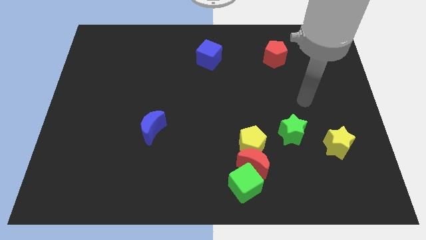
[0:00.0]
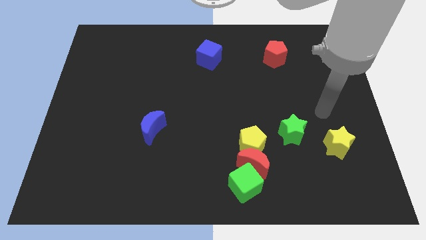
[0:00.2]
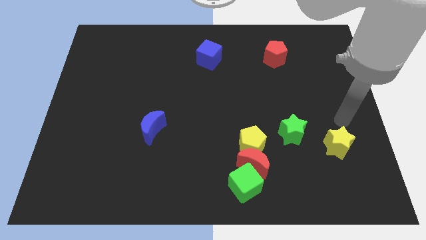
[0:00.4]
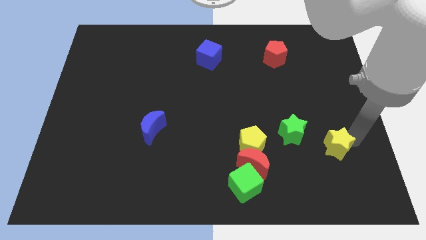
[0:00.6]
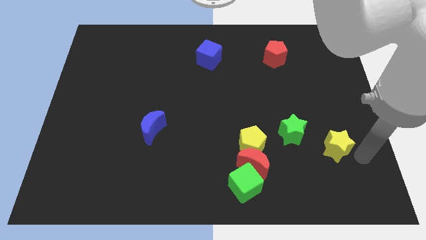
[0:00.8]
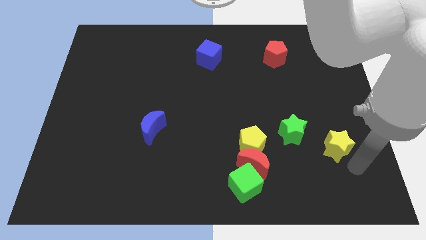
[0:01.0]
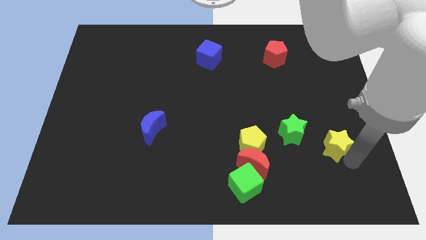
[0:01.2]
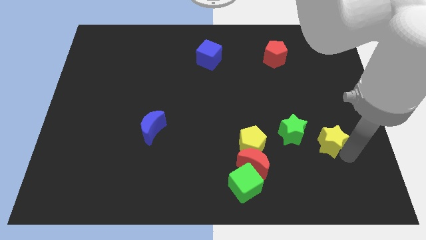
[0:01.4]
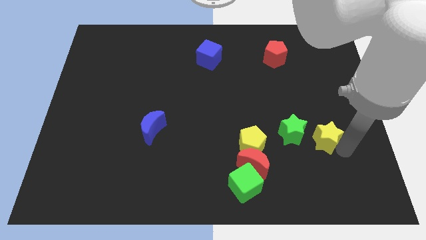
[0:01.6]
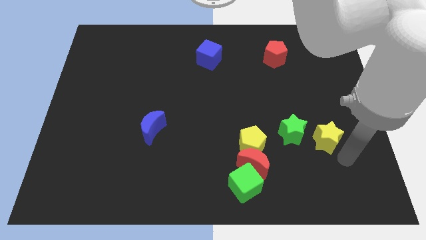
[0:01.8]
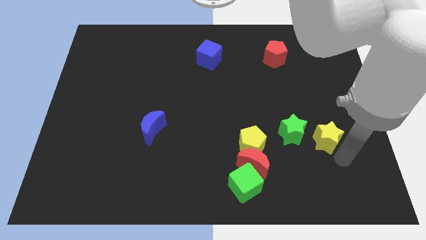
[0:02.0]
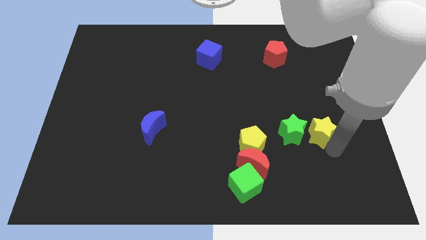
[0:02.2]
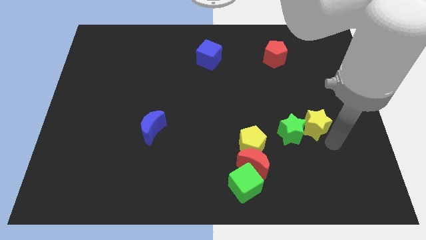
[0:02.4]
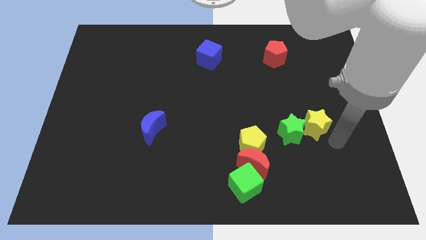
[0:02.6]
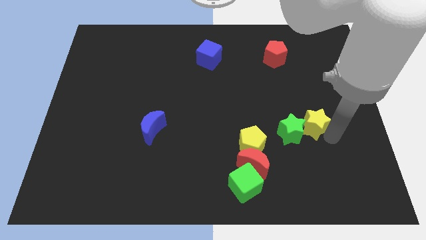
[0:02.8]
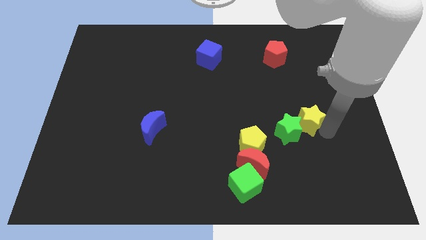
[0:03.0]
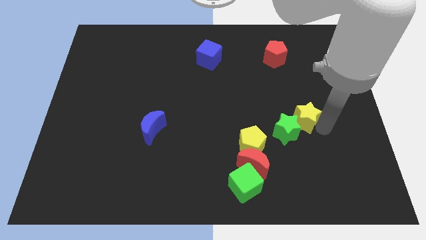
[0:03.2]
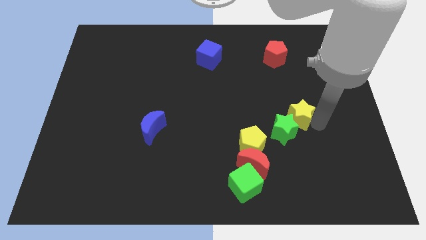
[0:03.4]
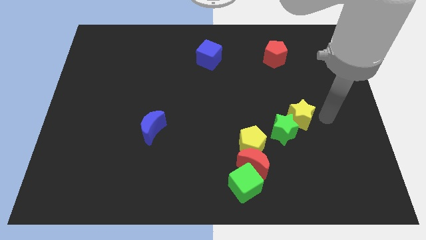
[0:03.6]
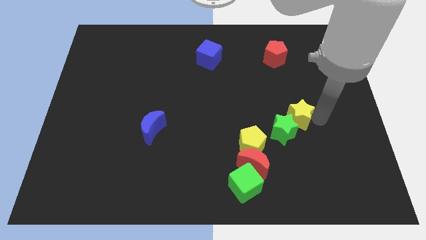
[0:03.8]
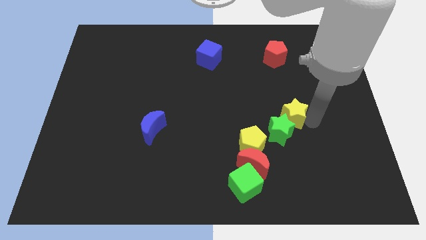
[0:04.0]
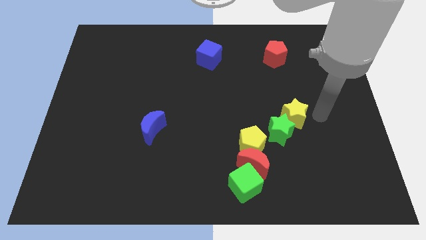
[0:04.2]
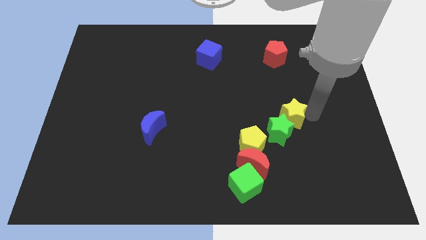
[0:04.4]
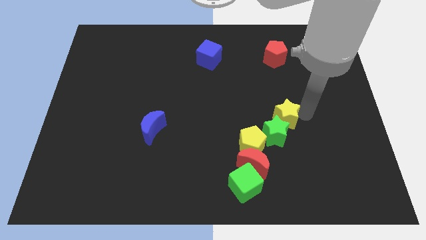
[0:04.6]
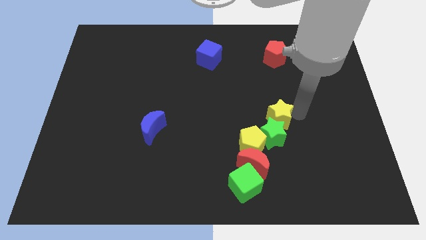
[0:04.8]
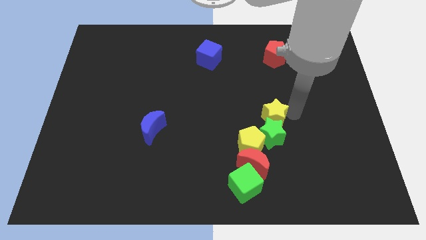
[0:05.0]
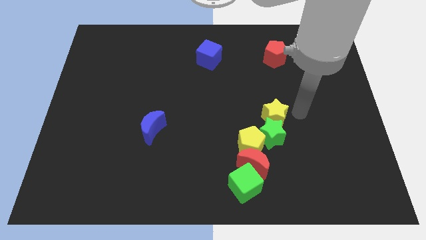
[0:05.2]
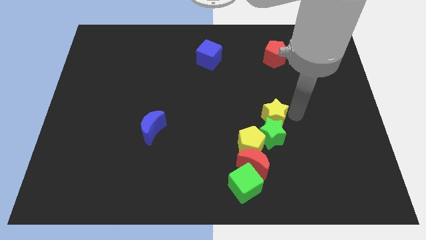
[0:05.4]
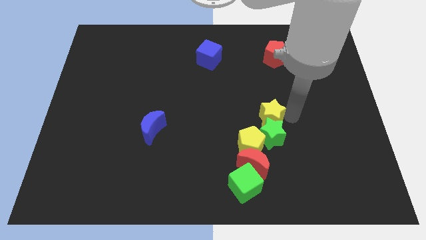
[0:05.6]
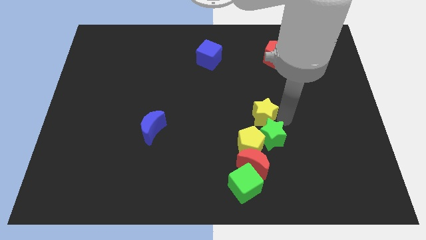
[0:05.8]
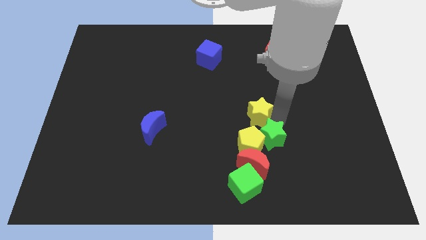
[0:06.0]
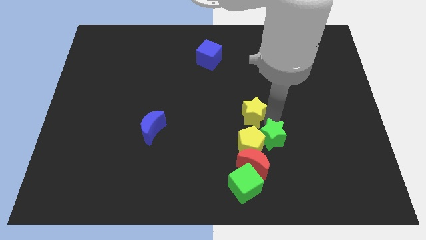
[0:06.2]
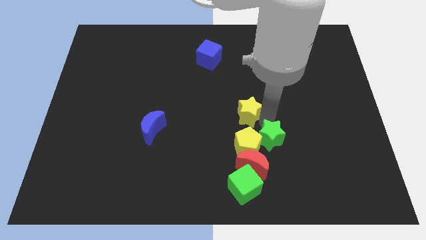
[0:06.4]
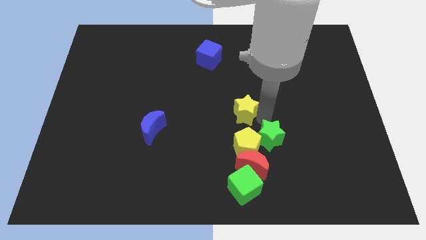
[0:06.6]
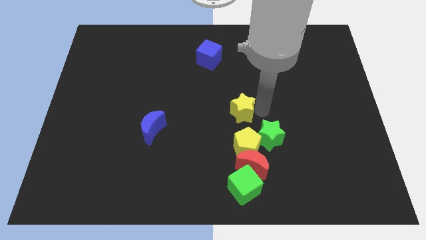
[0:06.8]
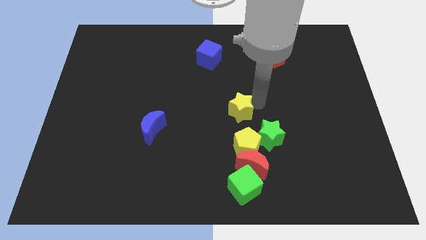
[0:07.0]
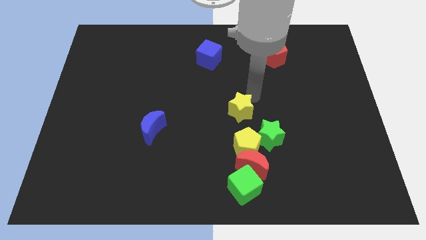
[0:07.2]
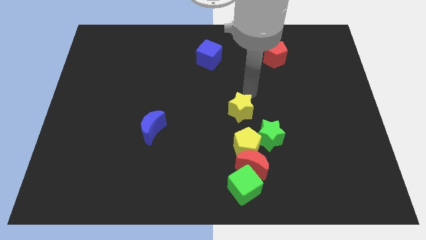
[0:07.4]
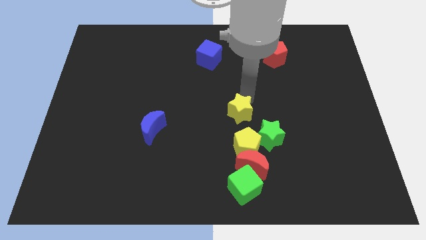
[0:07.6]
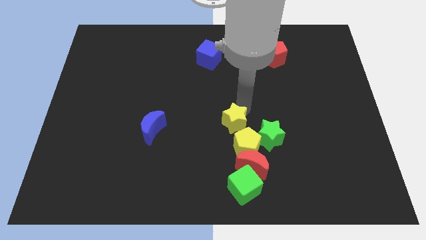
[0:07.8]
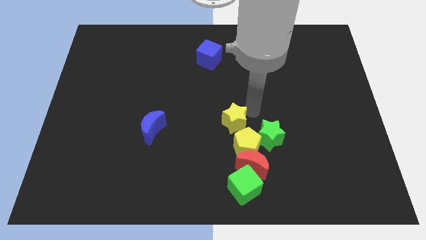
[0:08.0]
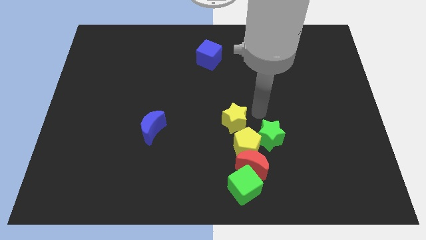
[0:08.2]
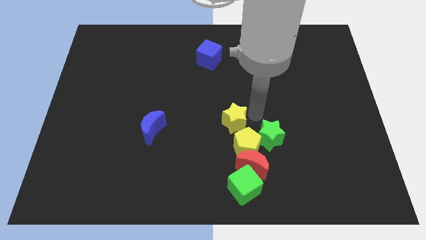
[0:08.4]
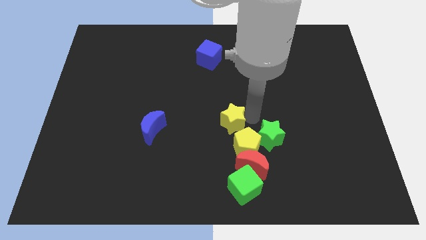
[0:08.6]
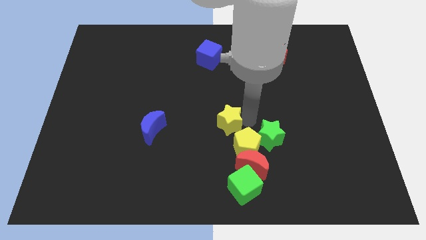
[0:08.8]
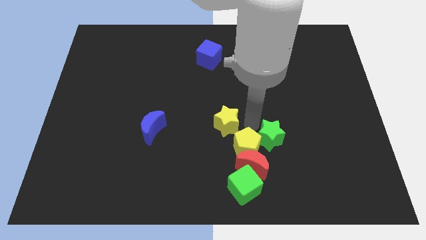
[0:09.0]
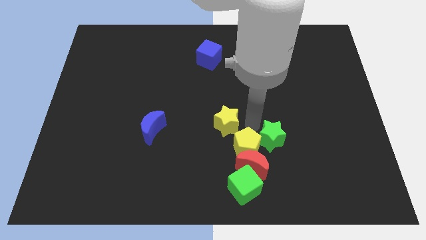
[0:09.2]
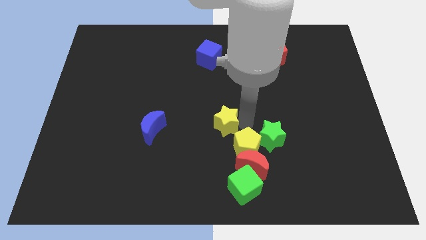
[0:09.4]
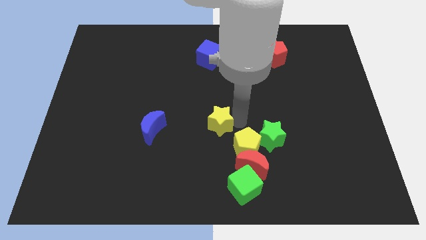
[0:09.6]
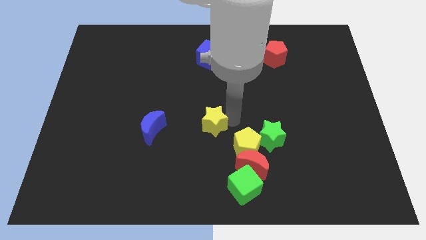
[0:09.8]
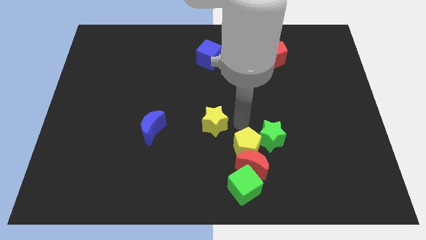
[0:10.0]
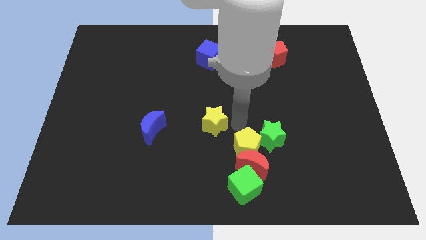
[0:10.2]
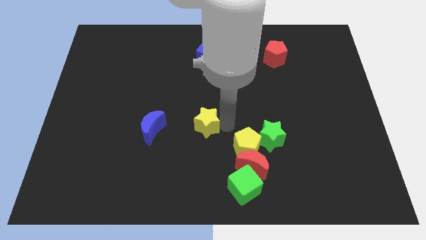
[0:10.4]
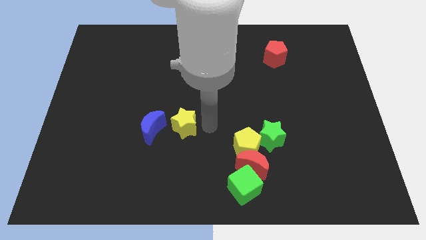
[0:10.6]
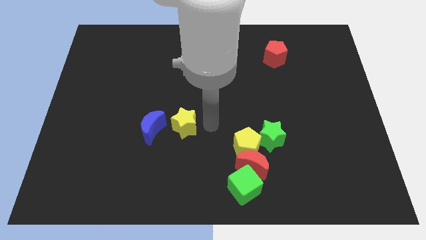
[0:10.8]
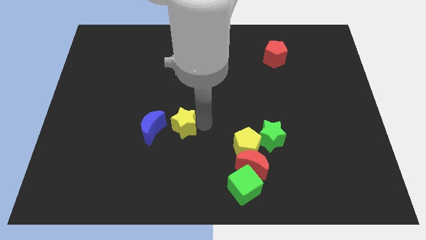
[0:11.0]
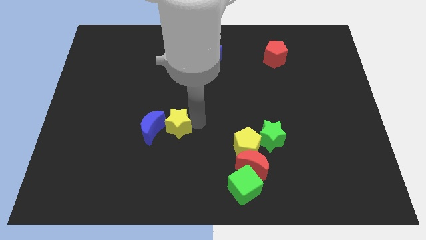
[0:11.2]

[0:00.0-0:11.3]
put the yellow star next to the blue moon
